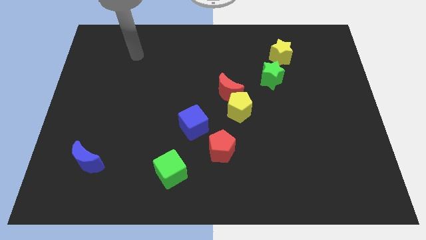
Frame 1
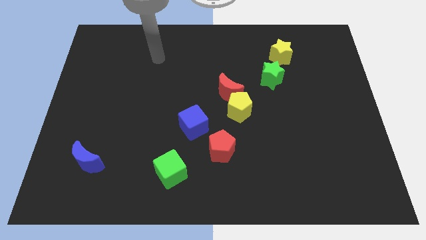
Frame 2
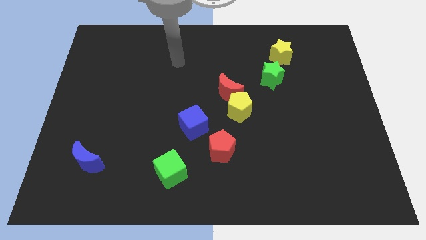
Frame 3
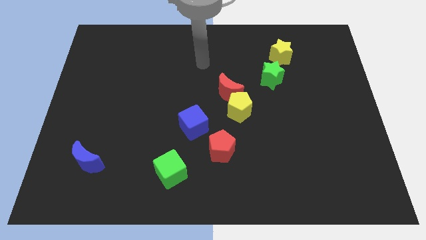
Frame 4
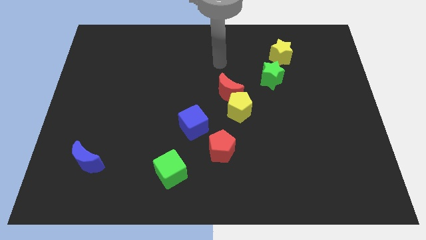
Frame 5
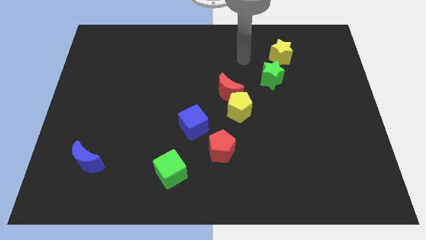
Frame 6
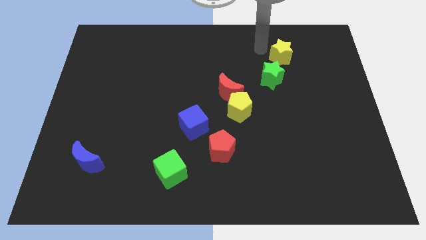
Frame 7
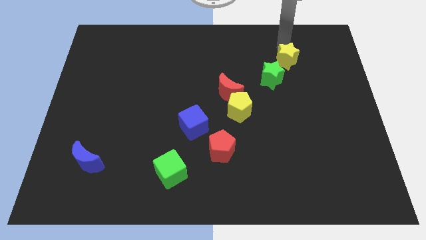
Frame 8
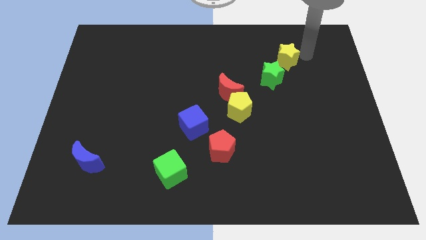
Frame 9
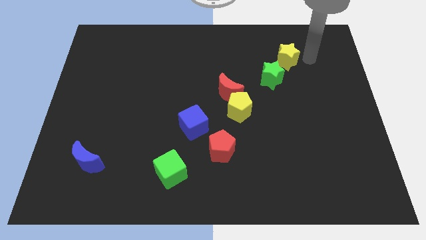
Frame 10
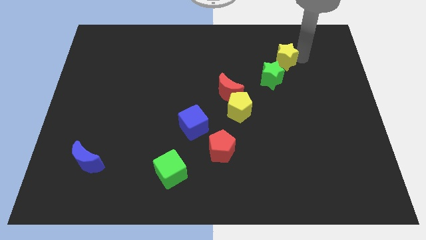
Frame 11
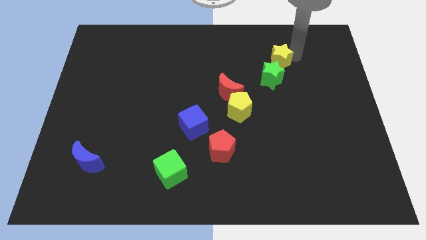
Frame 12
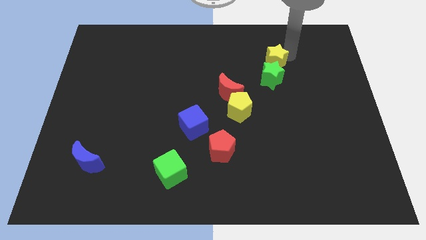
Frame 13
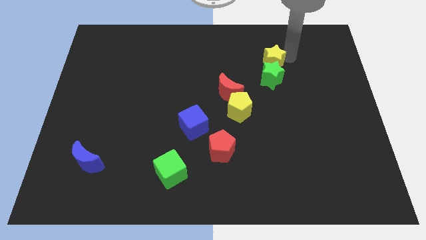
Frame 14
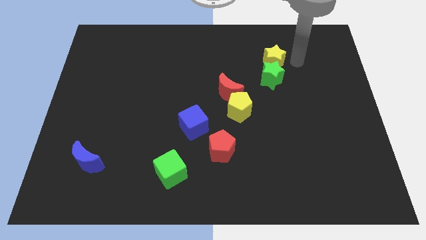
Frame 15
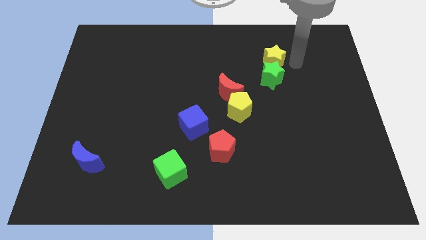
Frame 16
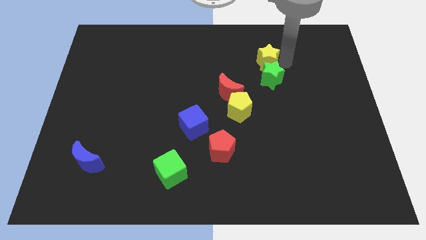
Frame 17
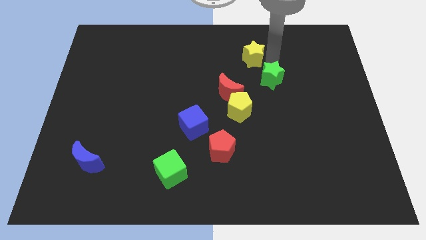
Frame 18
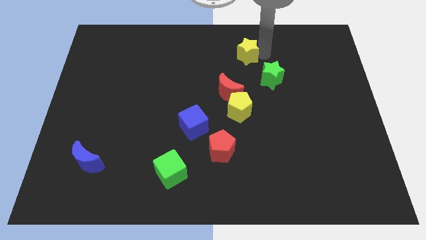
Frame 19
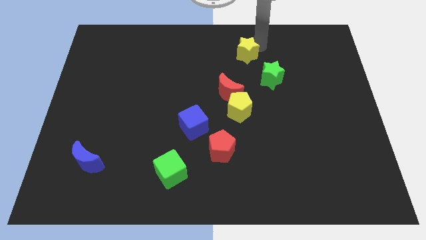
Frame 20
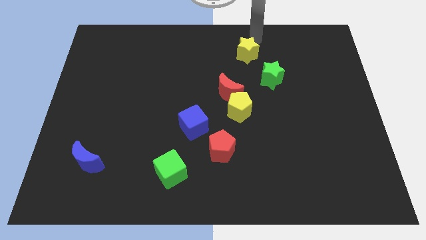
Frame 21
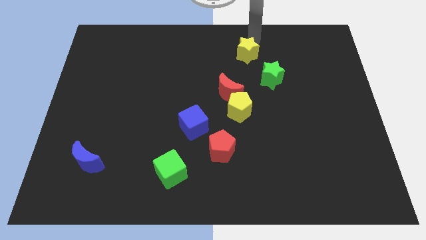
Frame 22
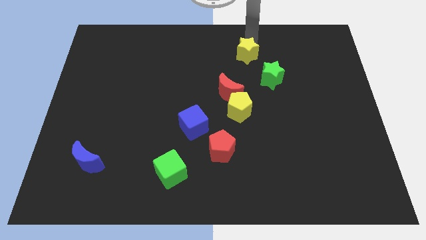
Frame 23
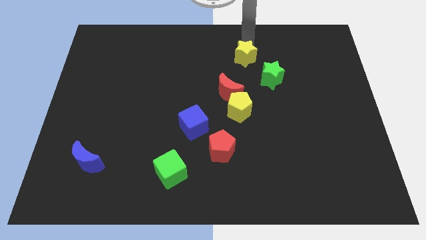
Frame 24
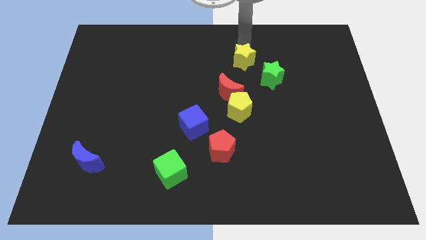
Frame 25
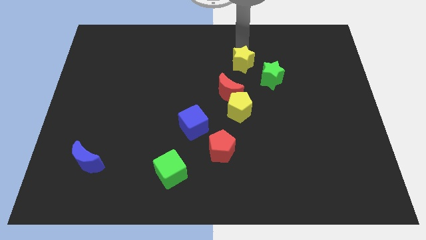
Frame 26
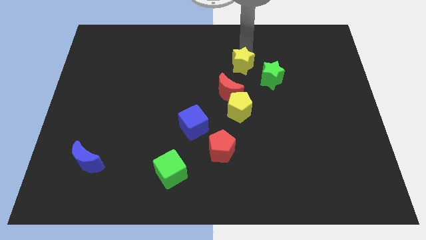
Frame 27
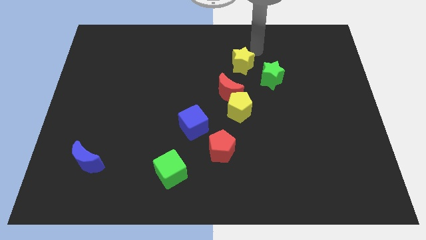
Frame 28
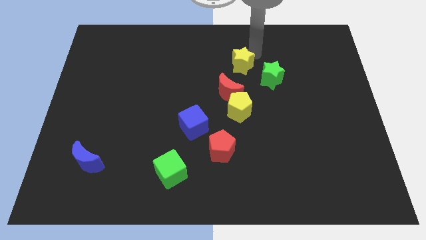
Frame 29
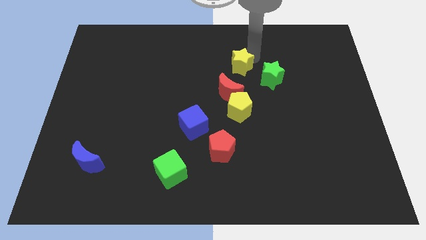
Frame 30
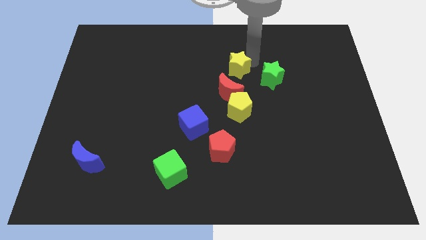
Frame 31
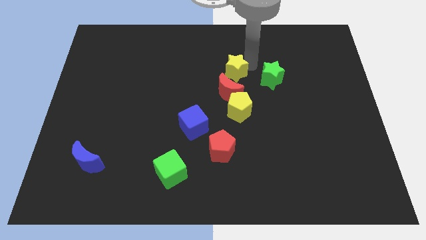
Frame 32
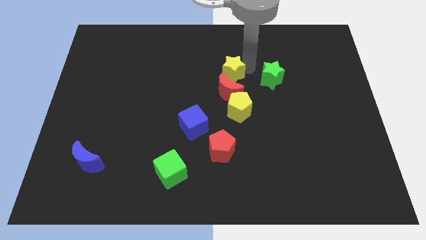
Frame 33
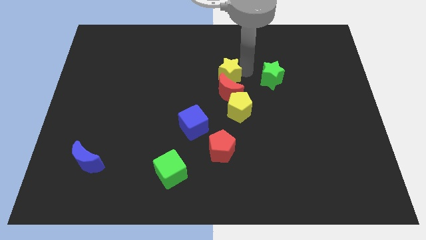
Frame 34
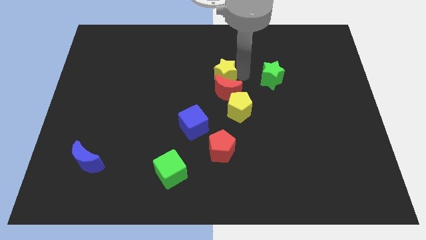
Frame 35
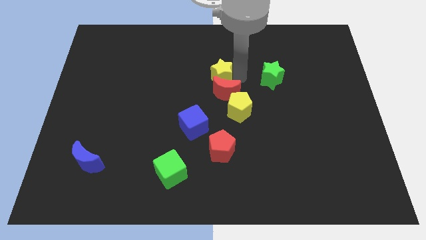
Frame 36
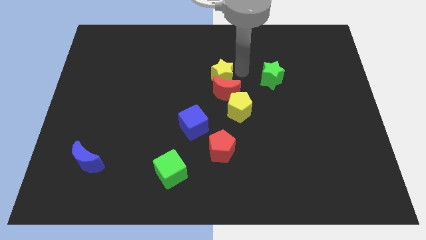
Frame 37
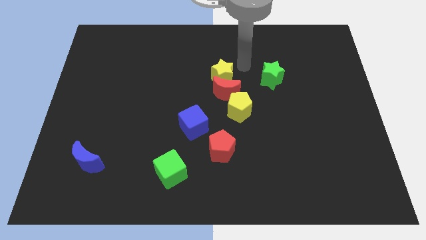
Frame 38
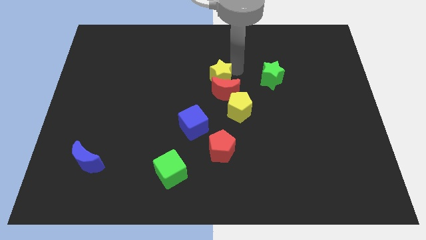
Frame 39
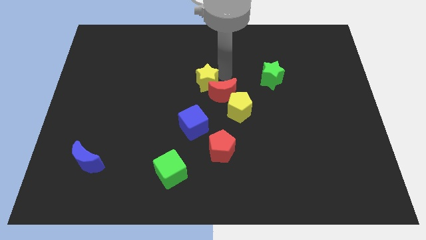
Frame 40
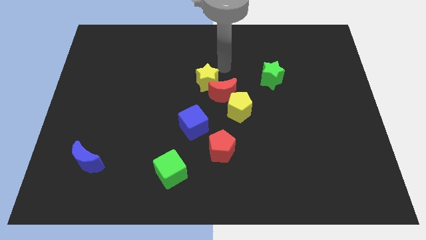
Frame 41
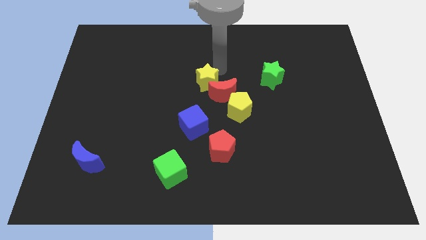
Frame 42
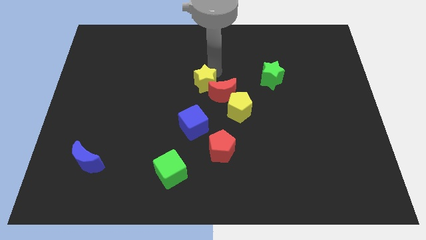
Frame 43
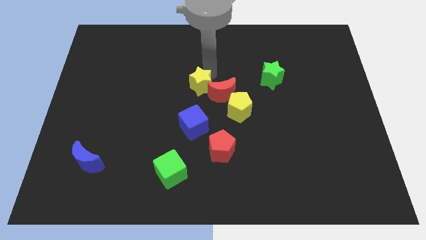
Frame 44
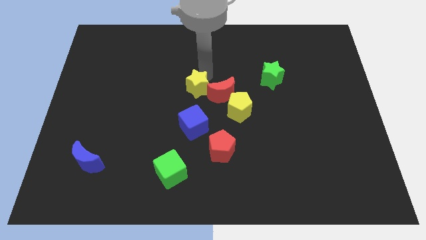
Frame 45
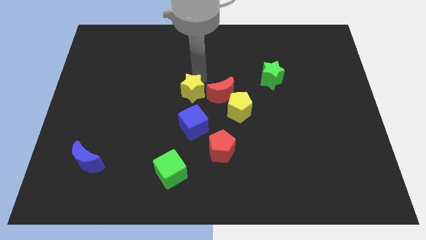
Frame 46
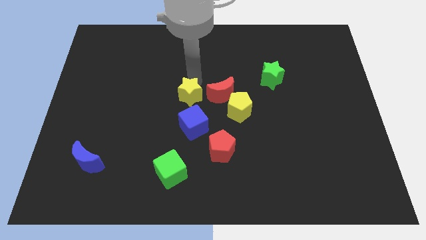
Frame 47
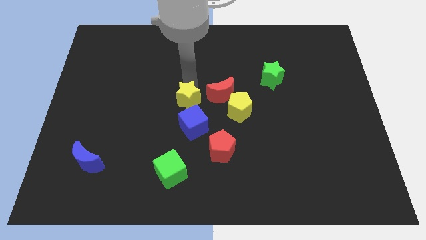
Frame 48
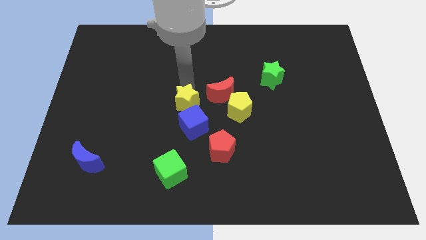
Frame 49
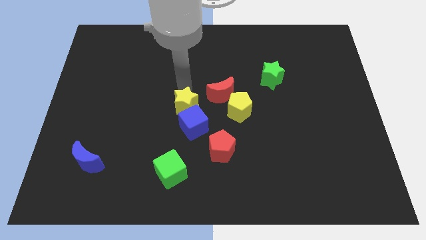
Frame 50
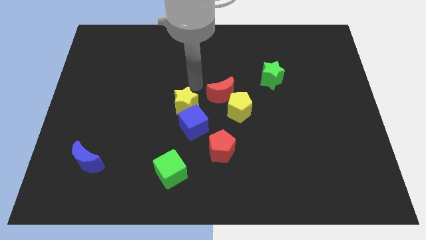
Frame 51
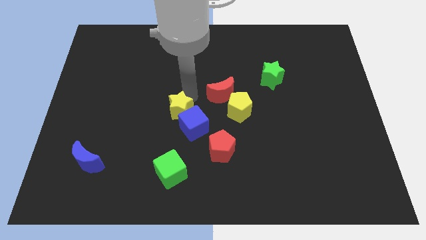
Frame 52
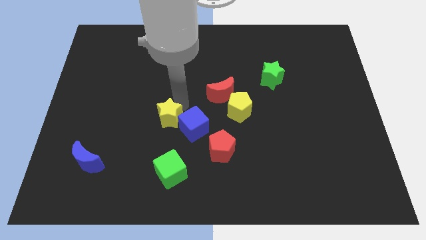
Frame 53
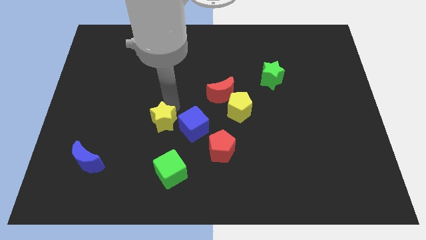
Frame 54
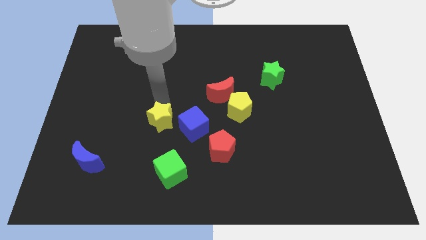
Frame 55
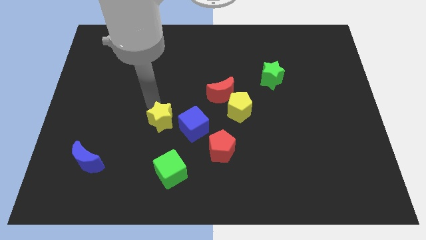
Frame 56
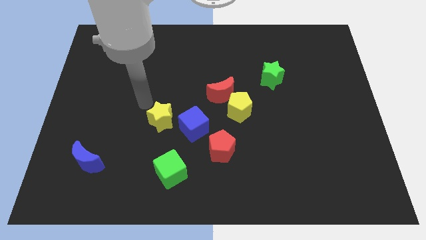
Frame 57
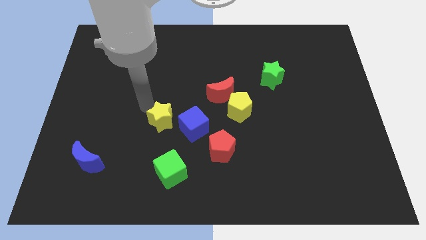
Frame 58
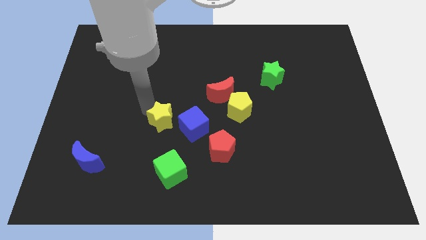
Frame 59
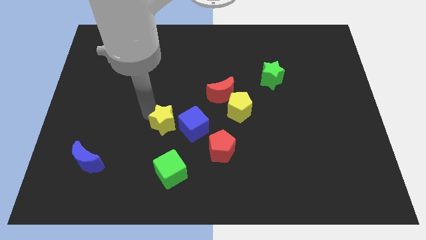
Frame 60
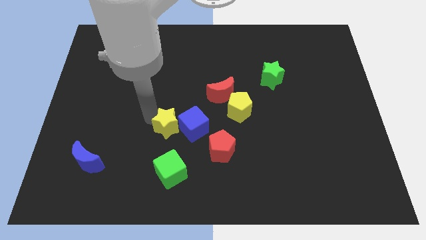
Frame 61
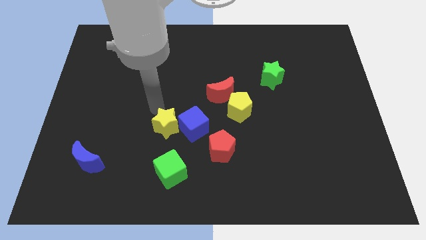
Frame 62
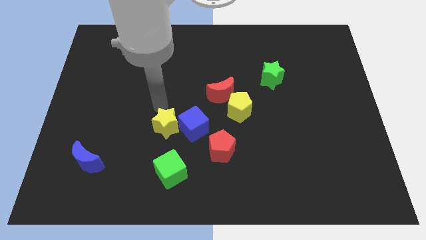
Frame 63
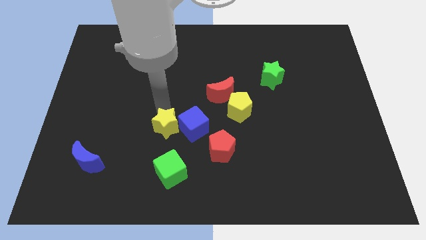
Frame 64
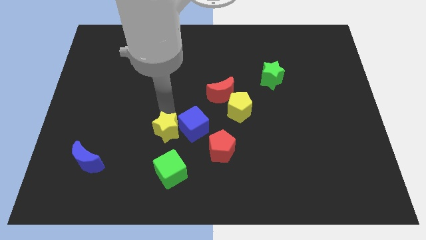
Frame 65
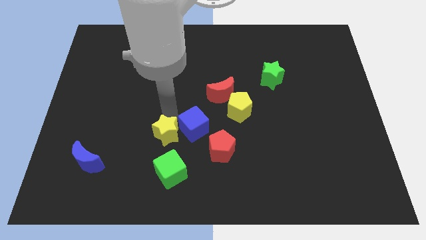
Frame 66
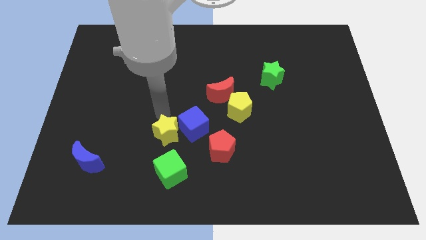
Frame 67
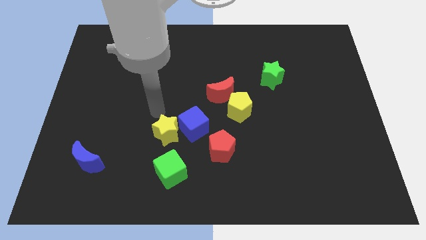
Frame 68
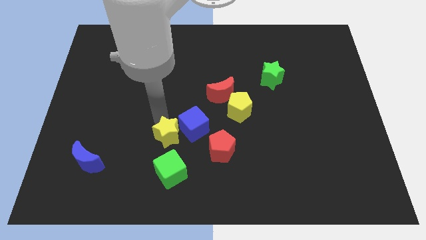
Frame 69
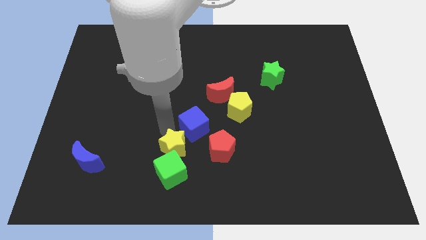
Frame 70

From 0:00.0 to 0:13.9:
push the yellow star to the green cube

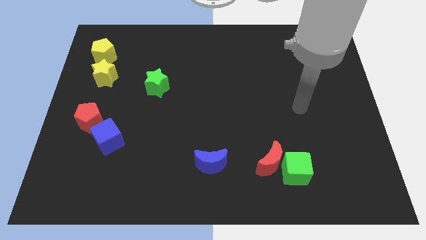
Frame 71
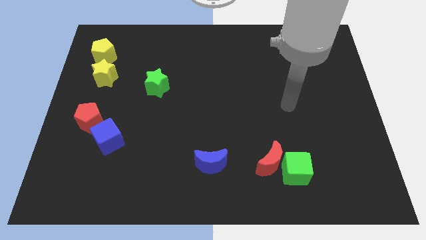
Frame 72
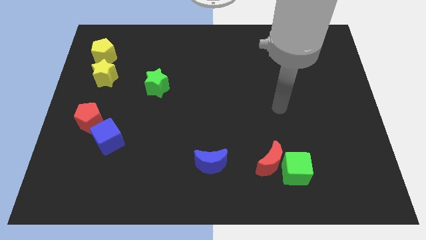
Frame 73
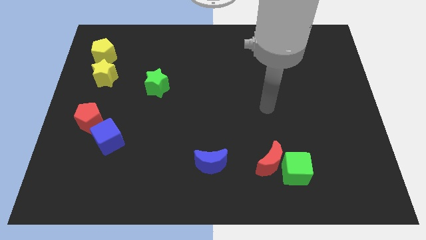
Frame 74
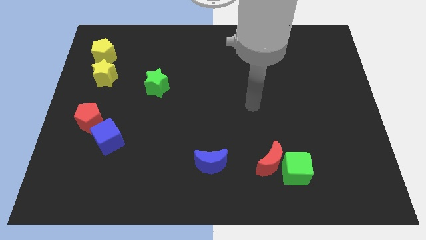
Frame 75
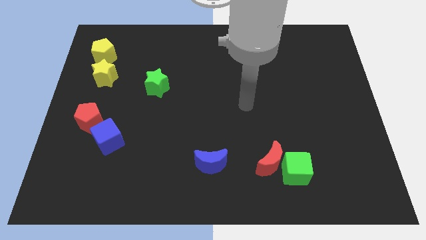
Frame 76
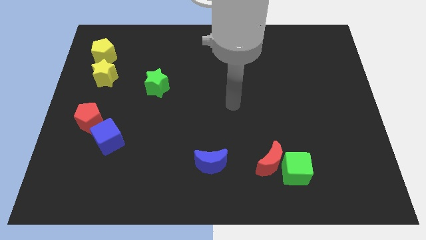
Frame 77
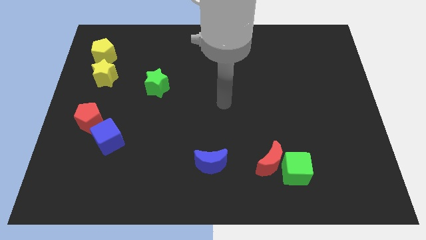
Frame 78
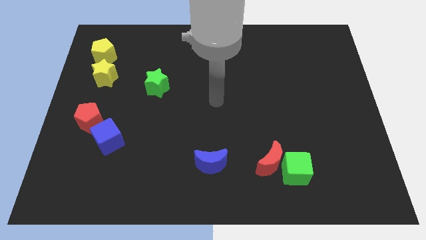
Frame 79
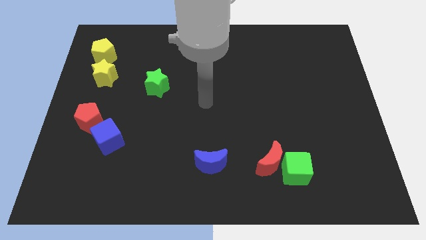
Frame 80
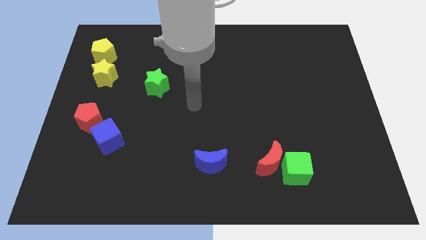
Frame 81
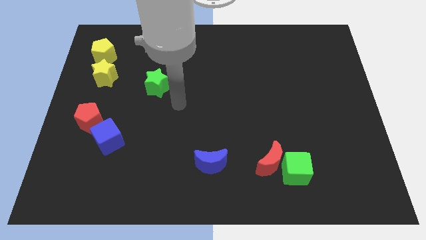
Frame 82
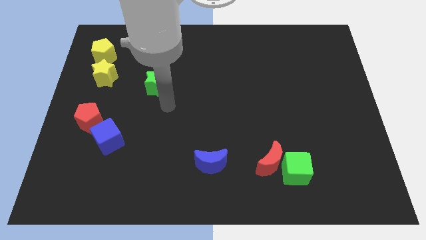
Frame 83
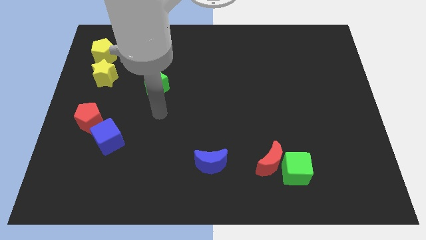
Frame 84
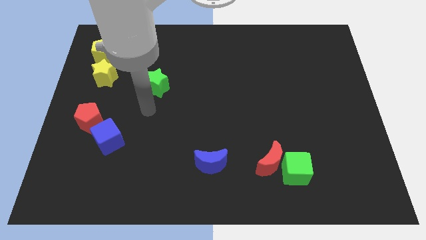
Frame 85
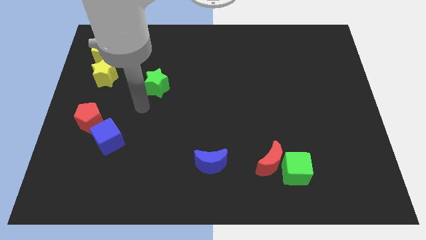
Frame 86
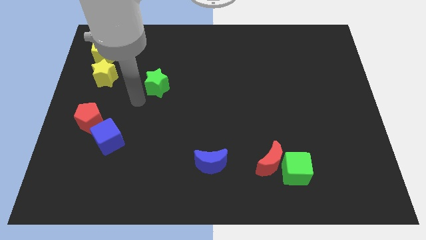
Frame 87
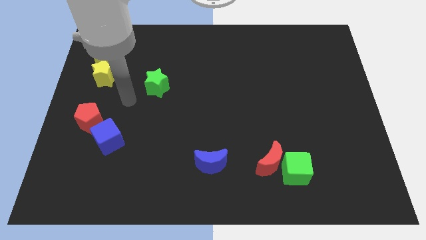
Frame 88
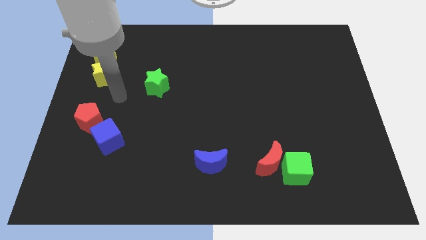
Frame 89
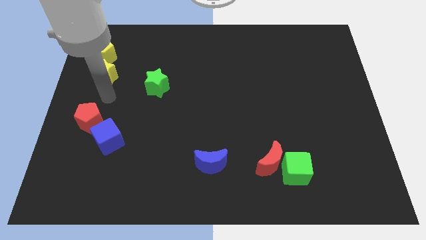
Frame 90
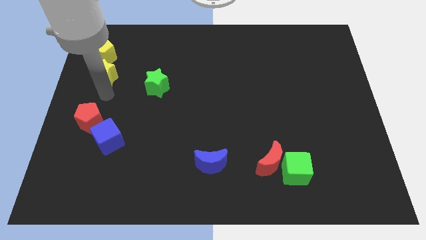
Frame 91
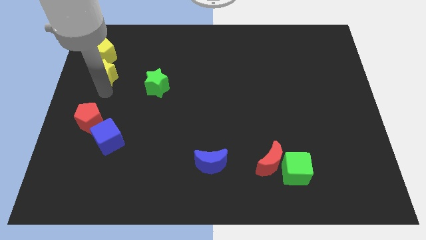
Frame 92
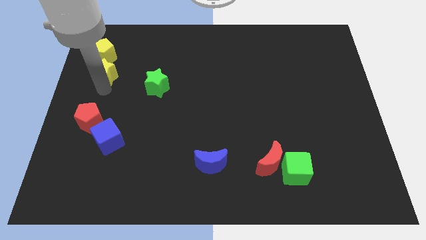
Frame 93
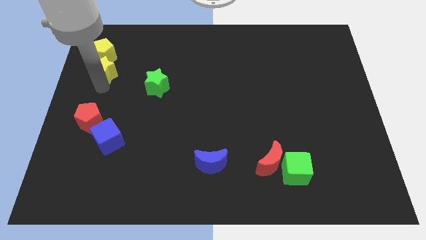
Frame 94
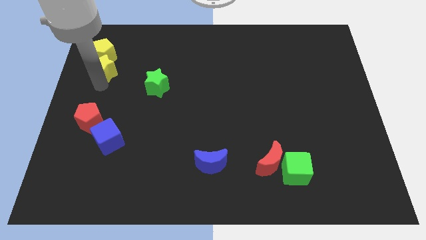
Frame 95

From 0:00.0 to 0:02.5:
move the yellow star next to the yellow pentagon
